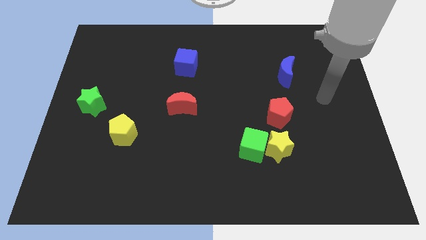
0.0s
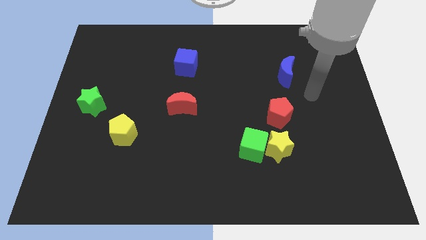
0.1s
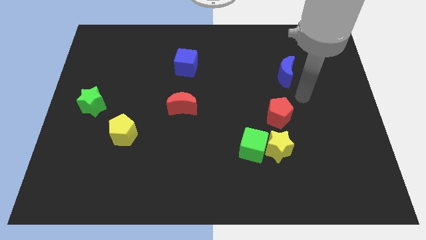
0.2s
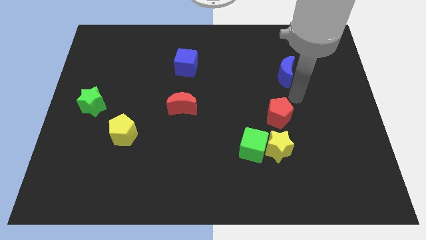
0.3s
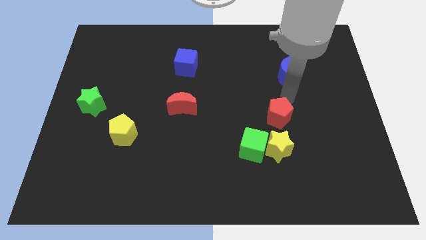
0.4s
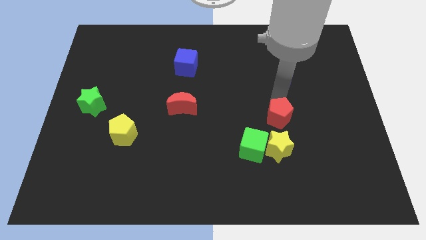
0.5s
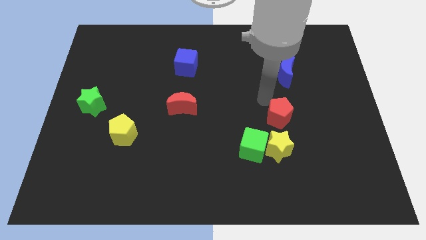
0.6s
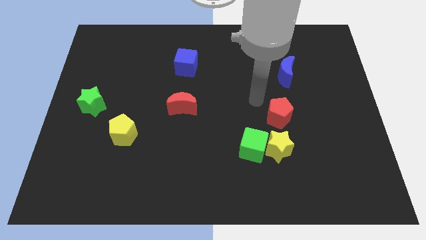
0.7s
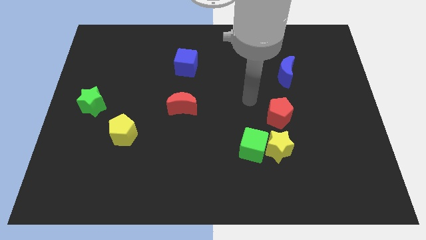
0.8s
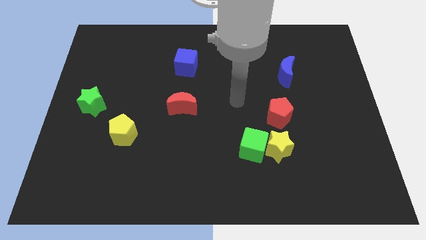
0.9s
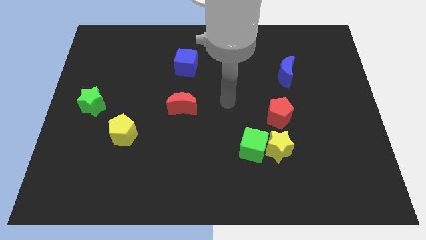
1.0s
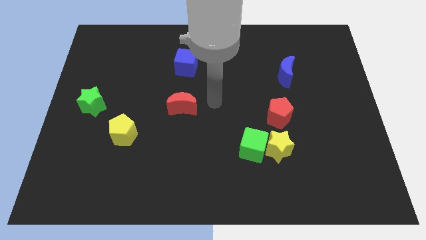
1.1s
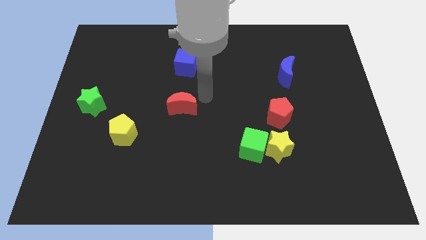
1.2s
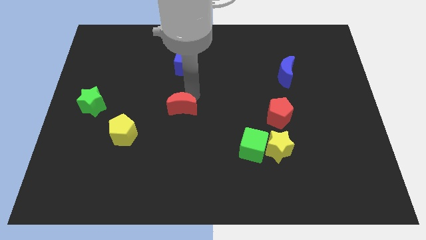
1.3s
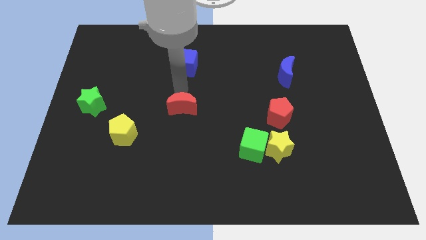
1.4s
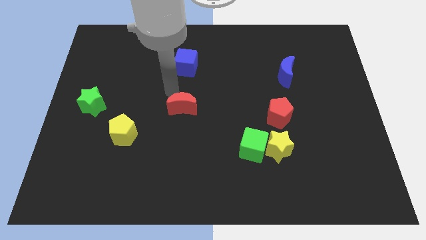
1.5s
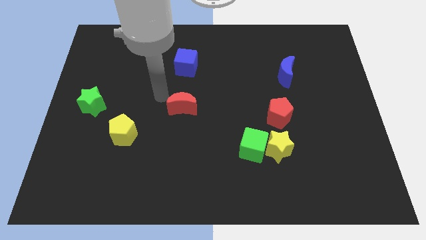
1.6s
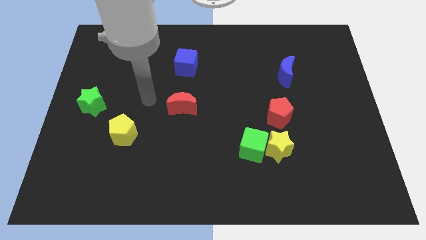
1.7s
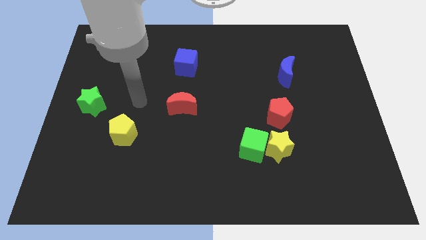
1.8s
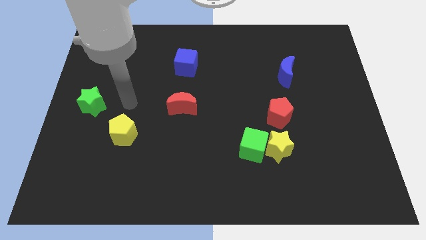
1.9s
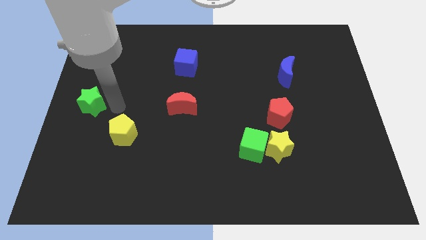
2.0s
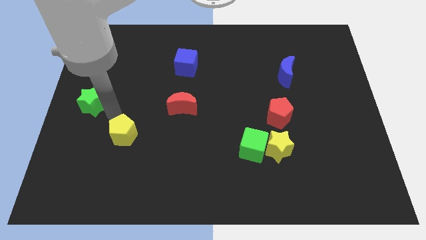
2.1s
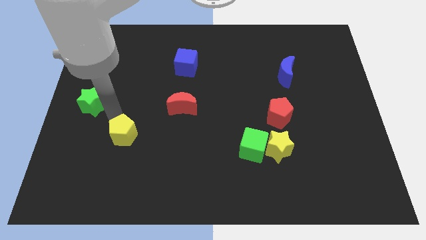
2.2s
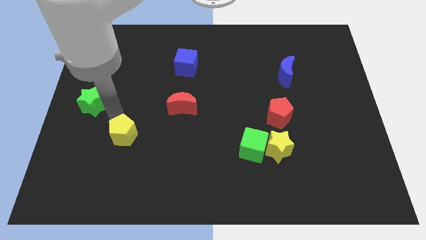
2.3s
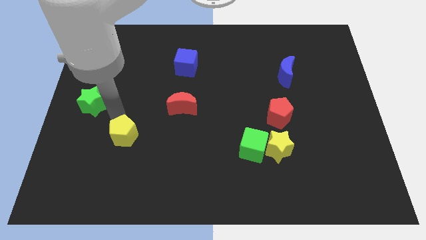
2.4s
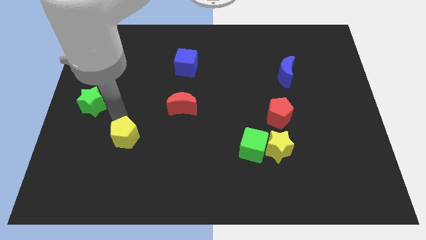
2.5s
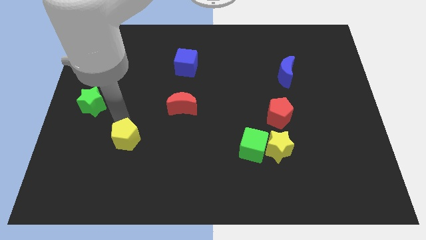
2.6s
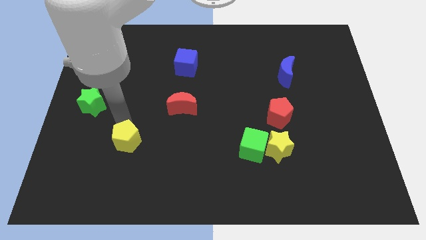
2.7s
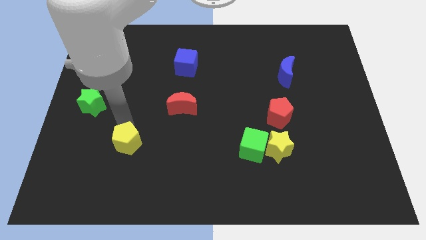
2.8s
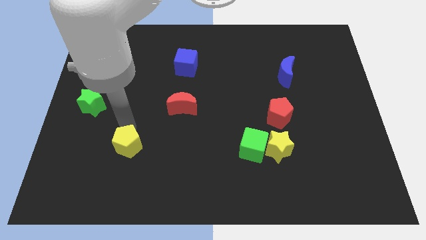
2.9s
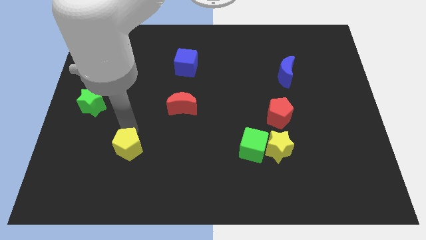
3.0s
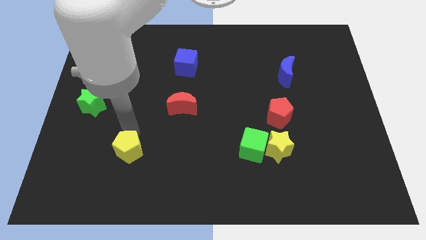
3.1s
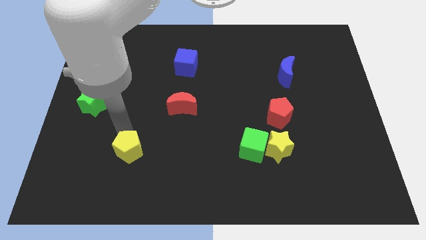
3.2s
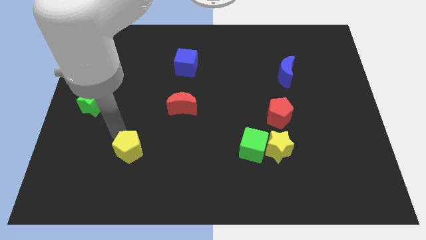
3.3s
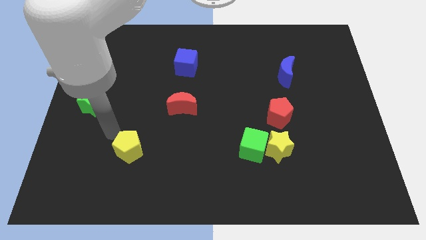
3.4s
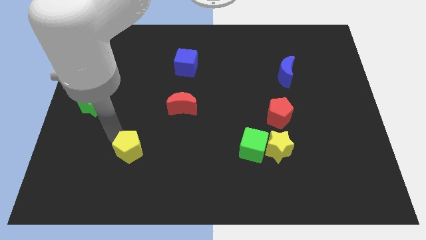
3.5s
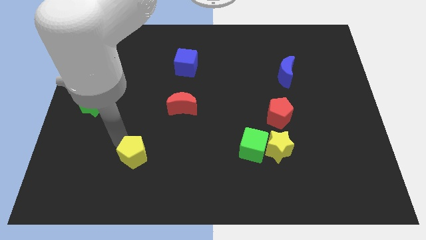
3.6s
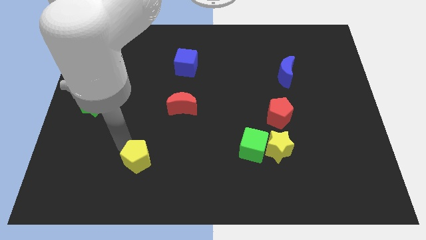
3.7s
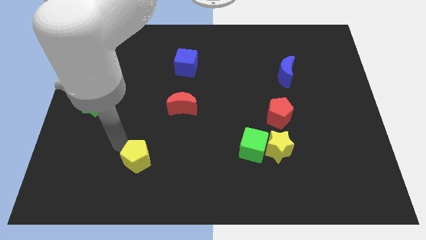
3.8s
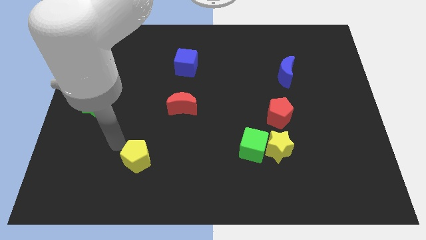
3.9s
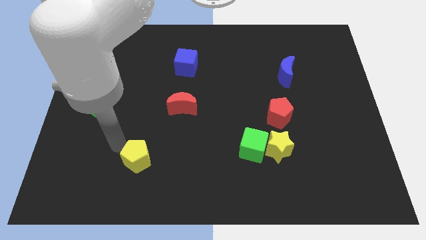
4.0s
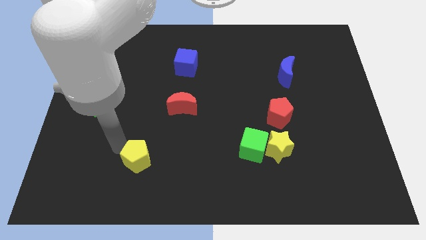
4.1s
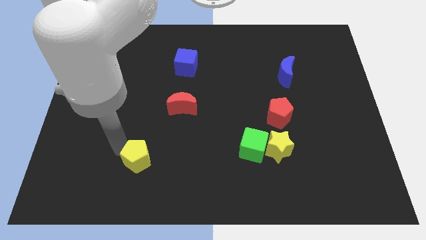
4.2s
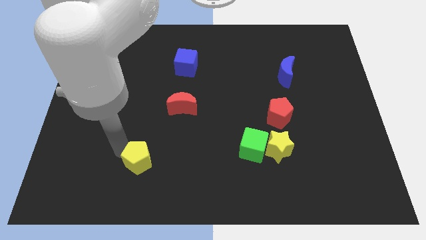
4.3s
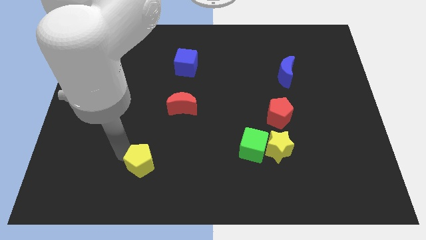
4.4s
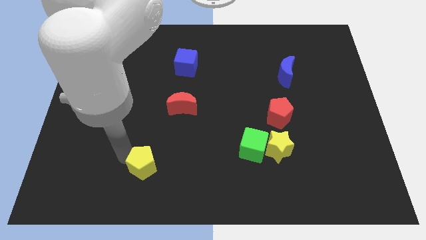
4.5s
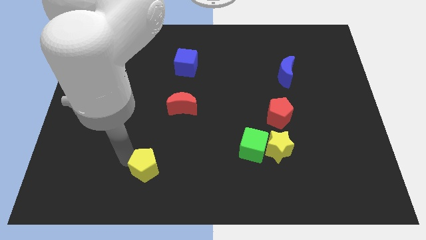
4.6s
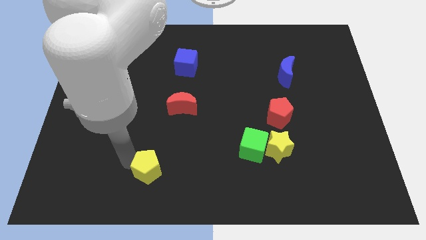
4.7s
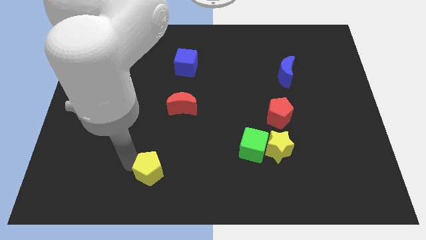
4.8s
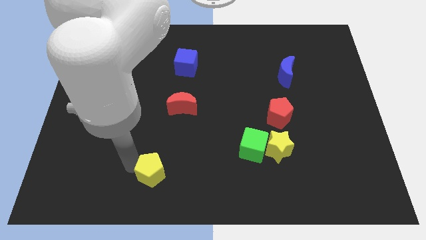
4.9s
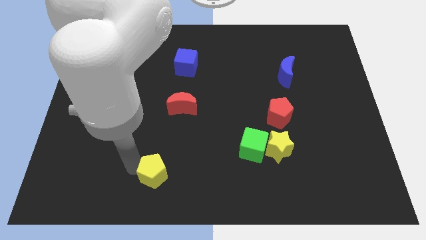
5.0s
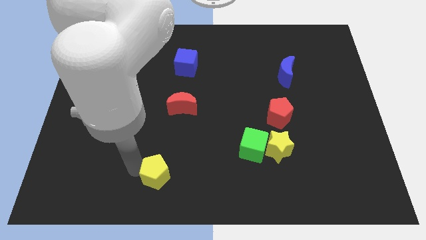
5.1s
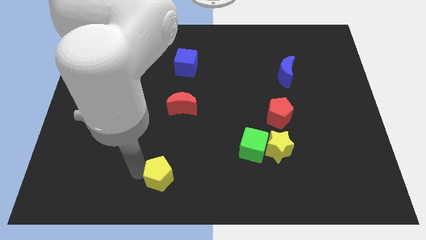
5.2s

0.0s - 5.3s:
put the yellow pentagon to the bottom
